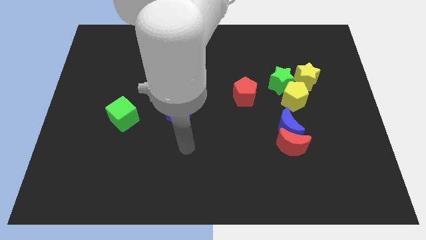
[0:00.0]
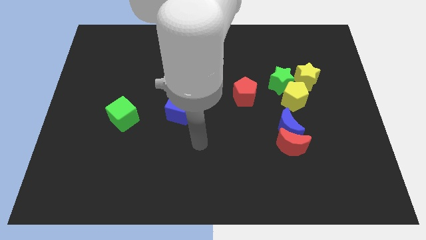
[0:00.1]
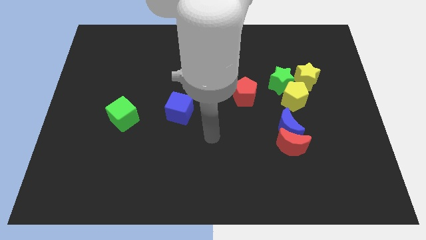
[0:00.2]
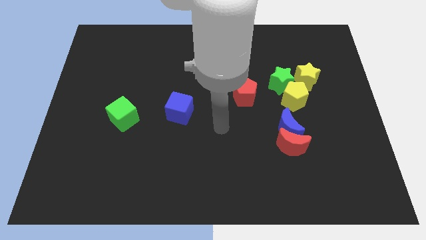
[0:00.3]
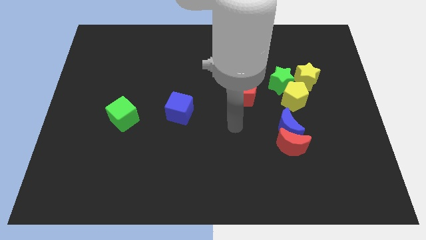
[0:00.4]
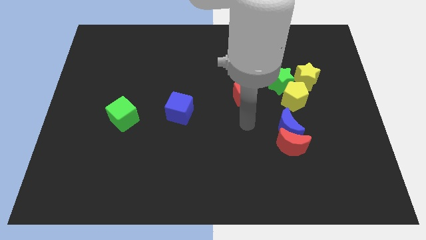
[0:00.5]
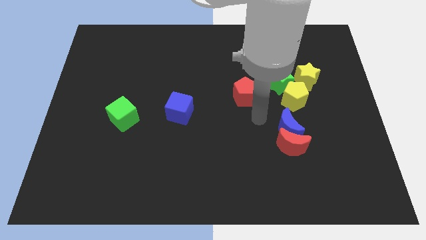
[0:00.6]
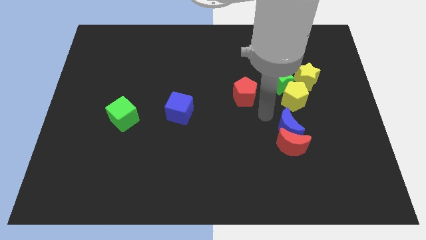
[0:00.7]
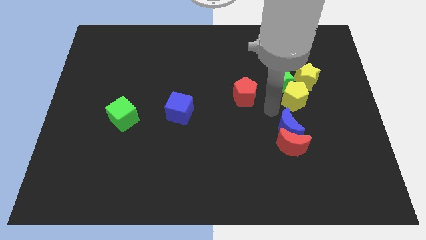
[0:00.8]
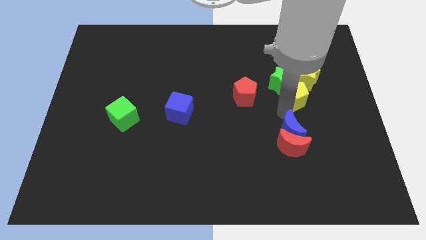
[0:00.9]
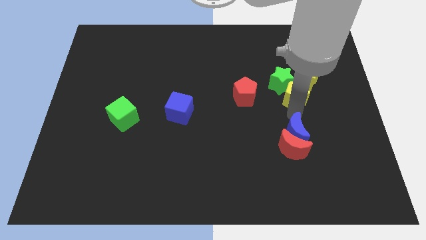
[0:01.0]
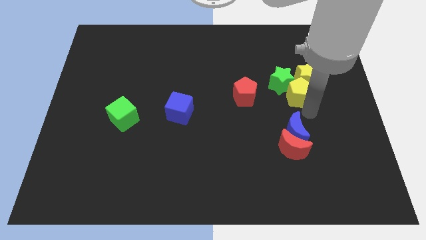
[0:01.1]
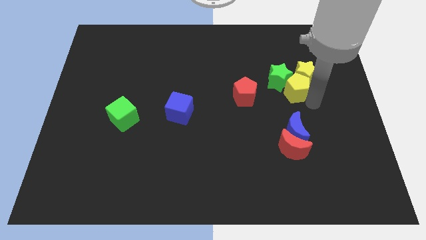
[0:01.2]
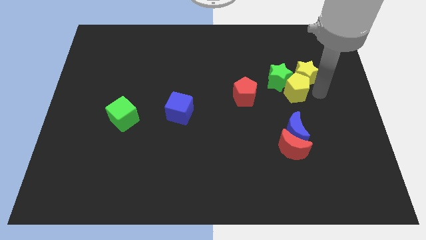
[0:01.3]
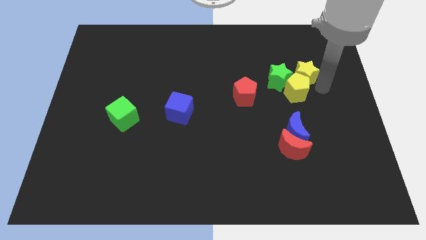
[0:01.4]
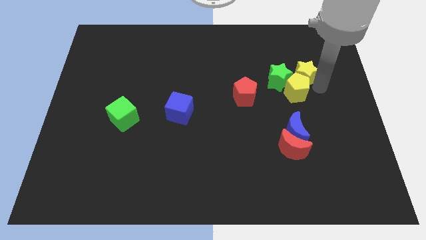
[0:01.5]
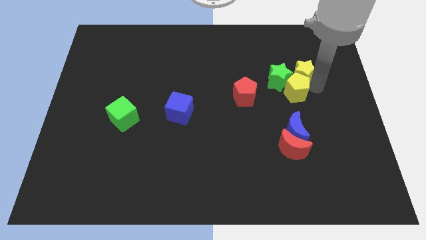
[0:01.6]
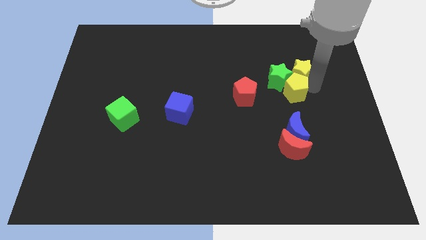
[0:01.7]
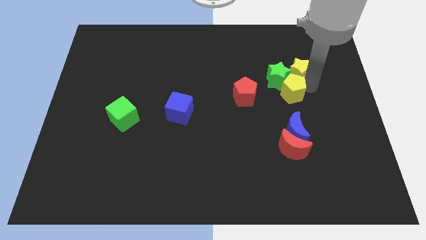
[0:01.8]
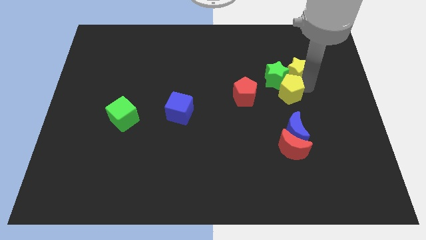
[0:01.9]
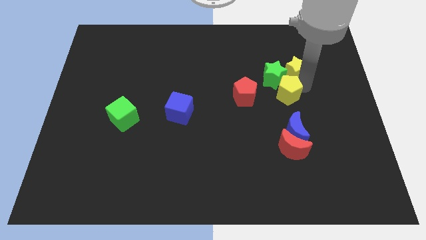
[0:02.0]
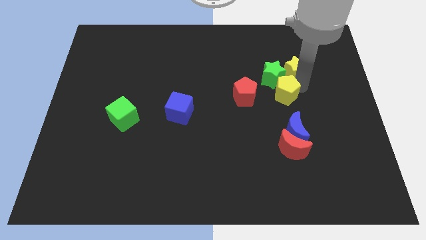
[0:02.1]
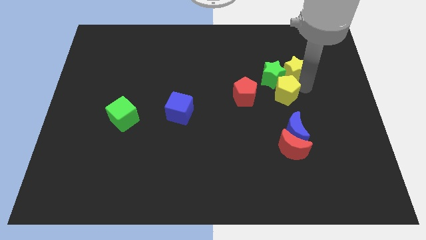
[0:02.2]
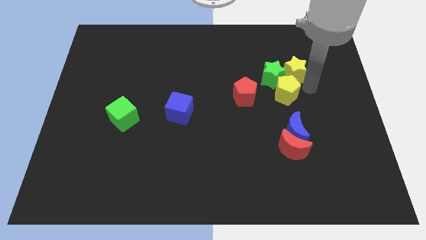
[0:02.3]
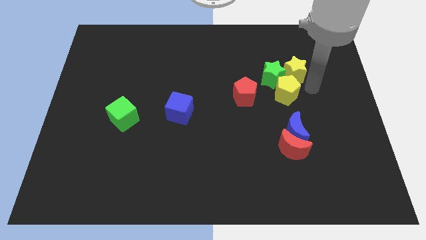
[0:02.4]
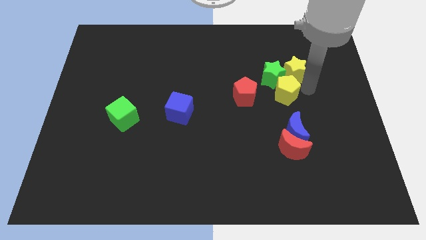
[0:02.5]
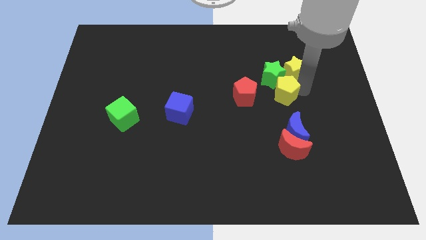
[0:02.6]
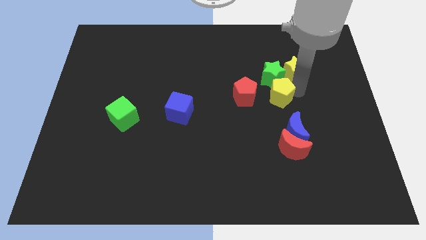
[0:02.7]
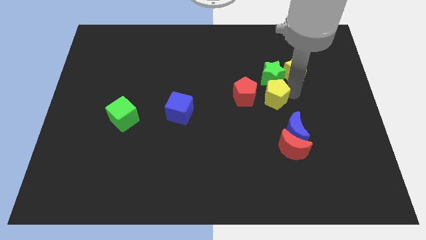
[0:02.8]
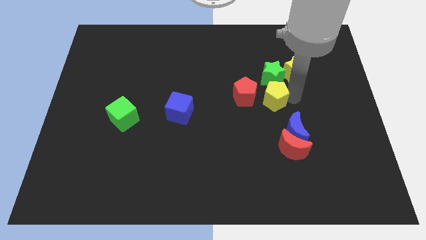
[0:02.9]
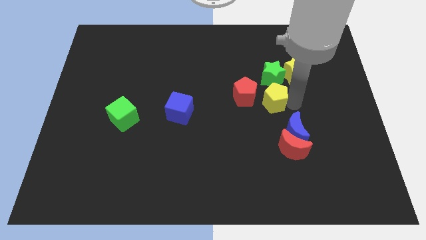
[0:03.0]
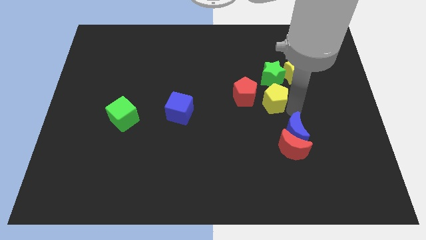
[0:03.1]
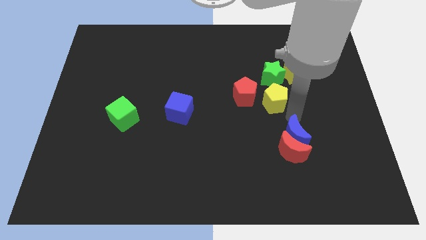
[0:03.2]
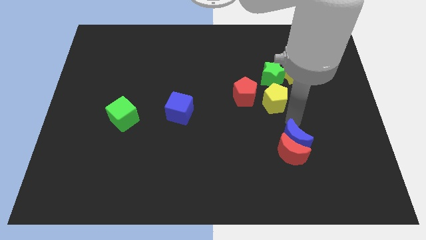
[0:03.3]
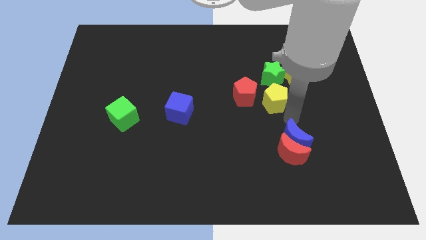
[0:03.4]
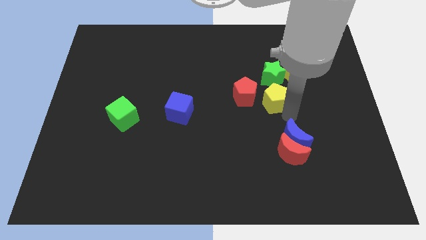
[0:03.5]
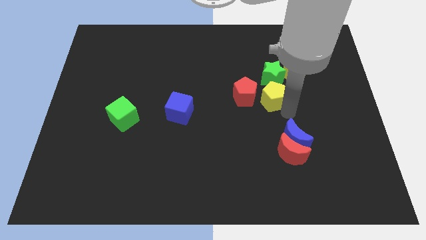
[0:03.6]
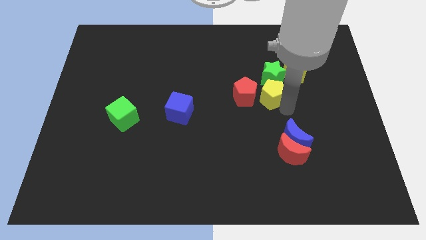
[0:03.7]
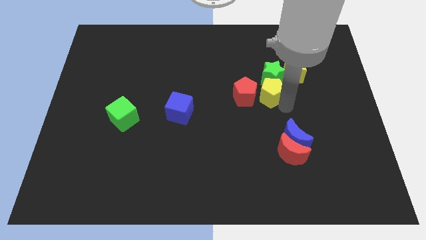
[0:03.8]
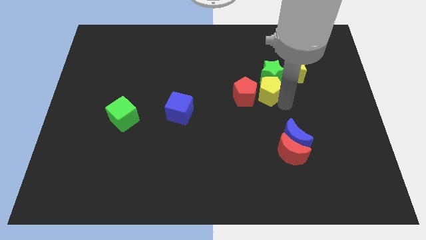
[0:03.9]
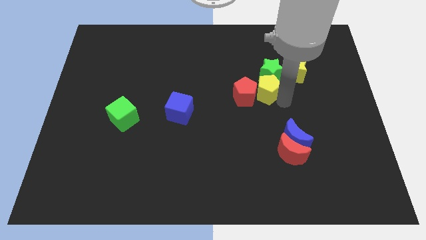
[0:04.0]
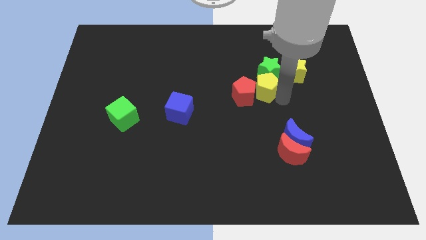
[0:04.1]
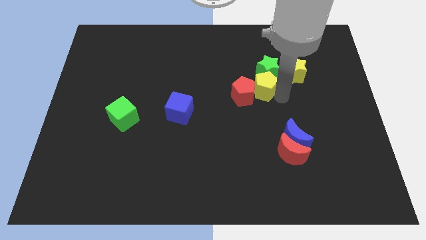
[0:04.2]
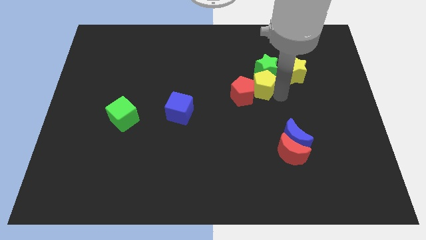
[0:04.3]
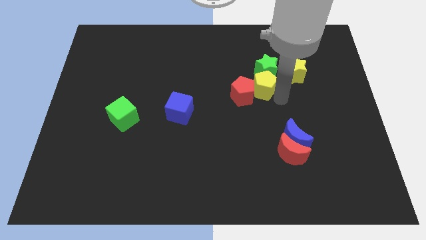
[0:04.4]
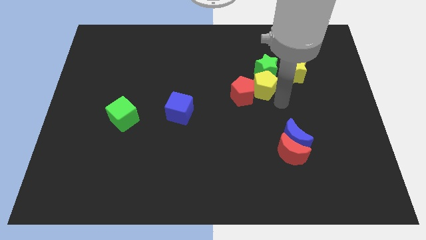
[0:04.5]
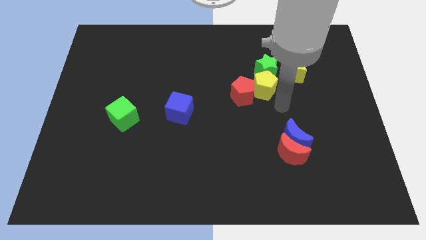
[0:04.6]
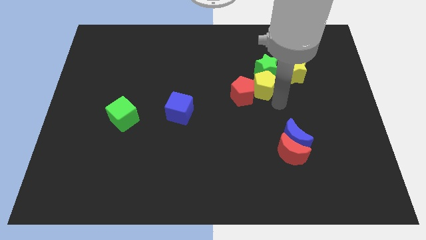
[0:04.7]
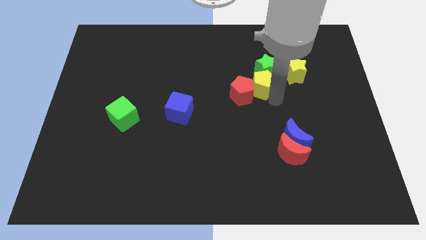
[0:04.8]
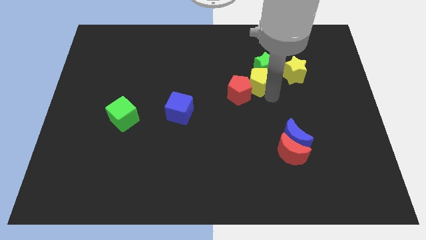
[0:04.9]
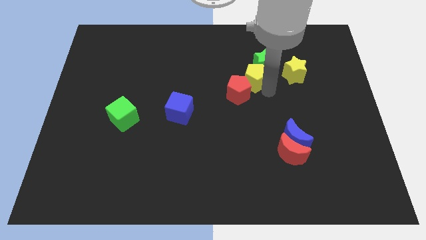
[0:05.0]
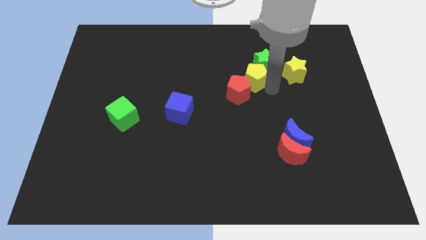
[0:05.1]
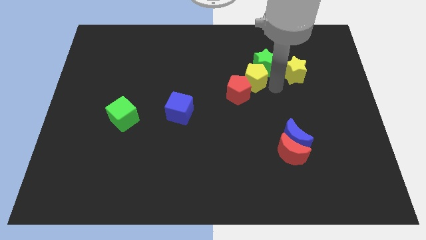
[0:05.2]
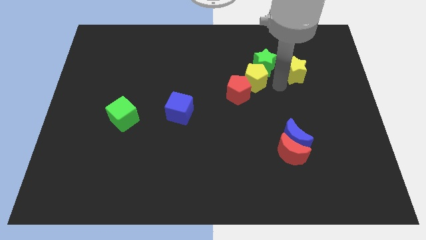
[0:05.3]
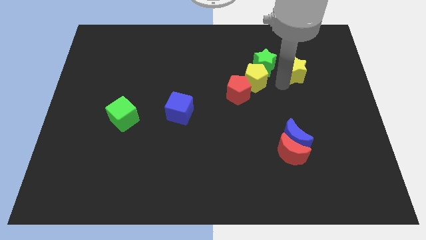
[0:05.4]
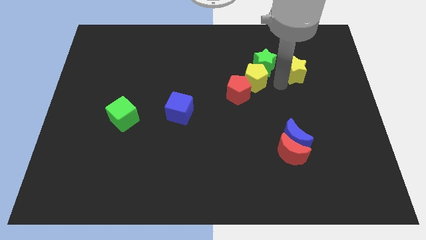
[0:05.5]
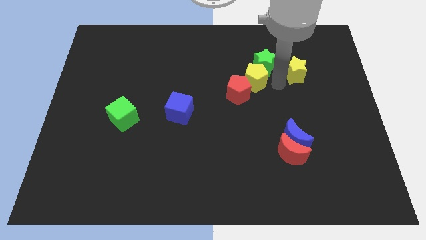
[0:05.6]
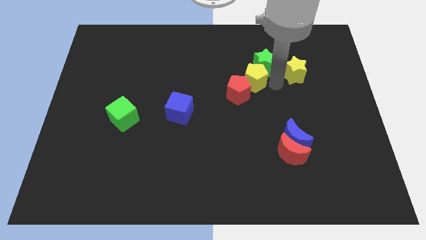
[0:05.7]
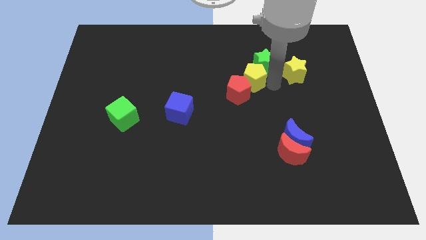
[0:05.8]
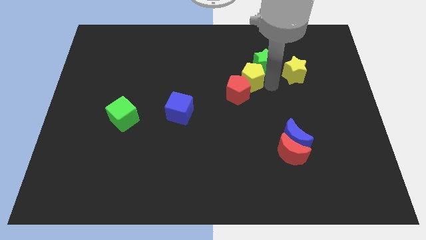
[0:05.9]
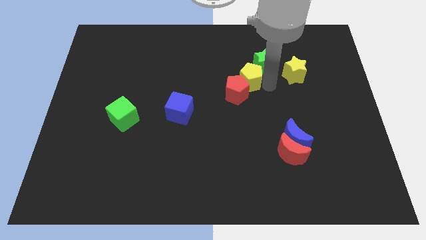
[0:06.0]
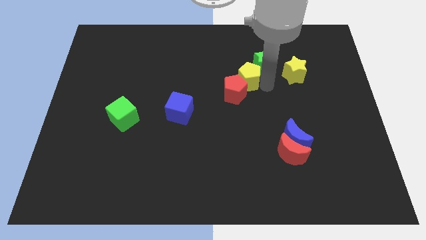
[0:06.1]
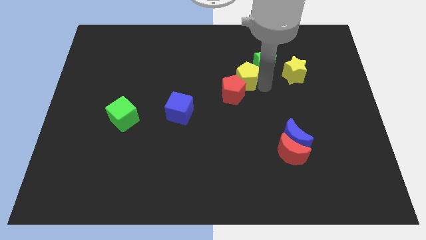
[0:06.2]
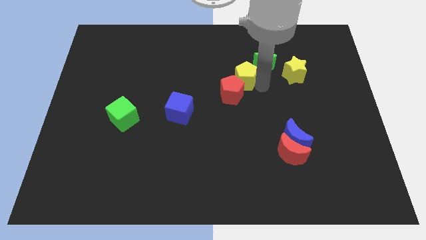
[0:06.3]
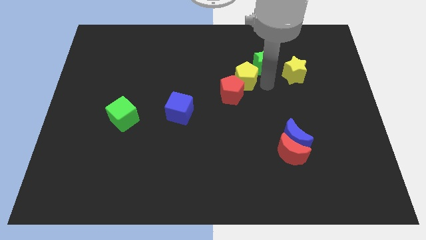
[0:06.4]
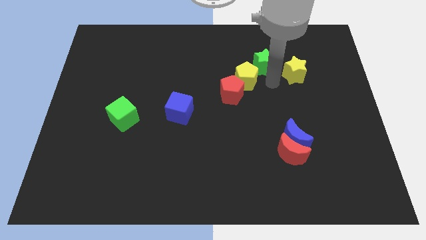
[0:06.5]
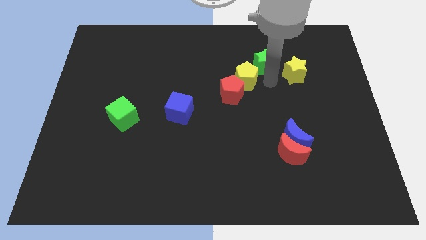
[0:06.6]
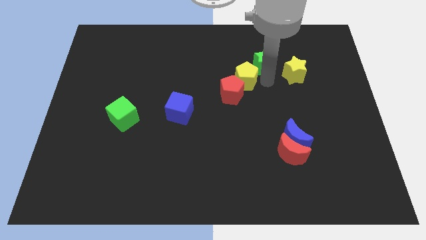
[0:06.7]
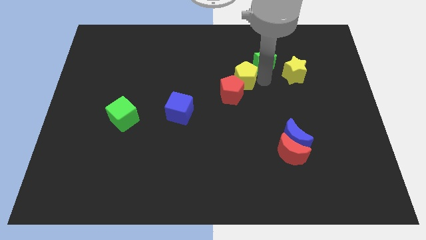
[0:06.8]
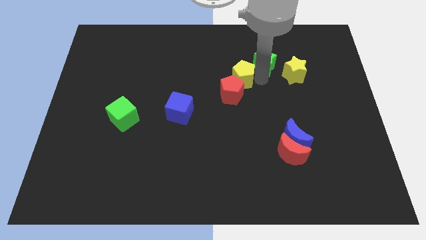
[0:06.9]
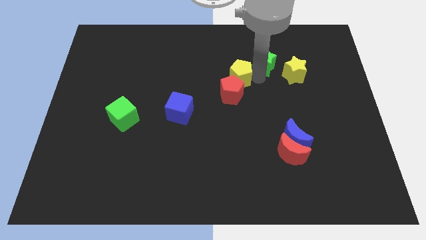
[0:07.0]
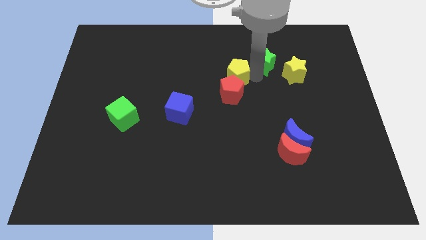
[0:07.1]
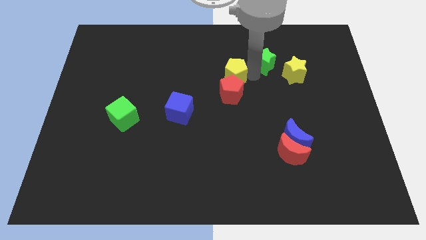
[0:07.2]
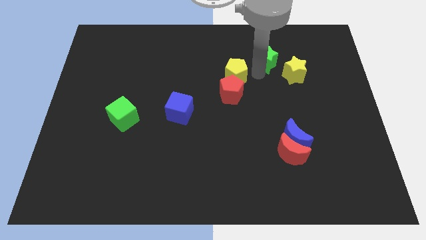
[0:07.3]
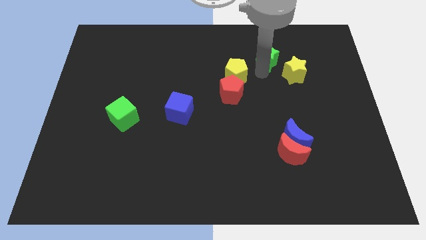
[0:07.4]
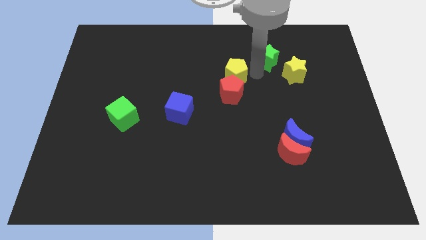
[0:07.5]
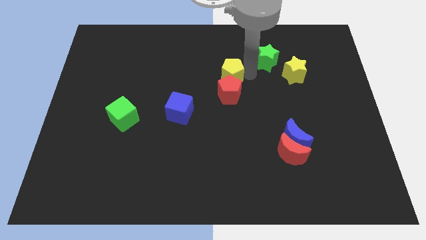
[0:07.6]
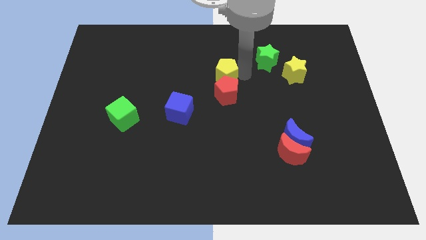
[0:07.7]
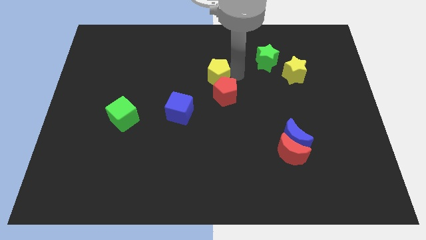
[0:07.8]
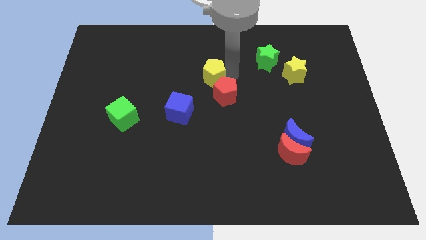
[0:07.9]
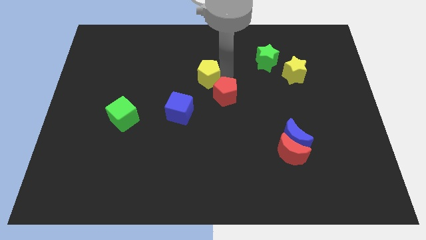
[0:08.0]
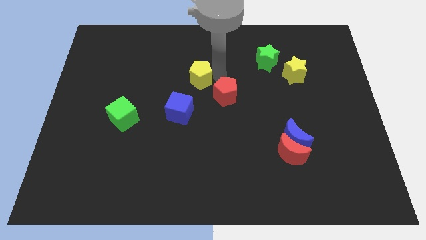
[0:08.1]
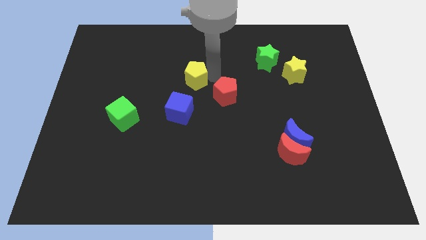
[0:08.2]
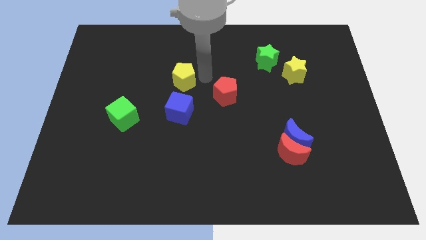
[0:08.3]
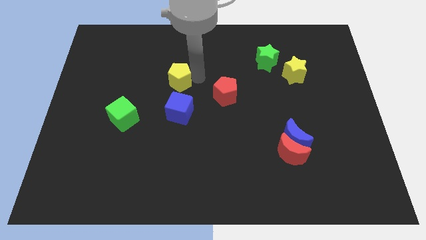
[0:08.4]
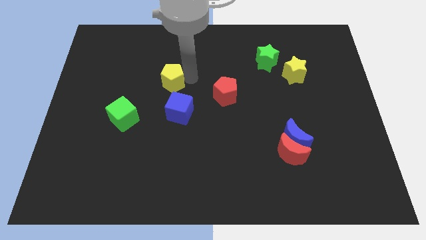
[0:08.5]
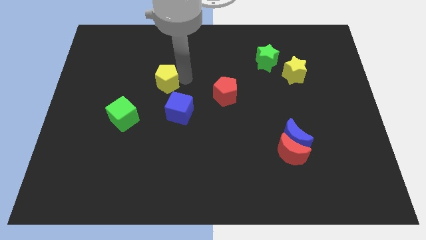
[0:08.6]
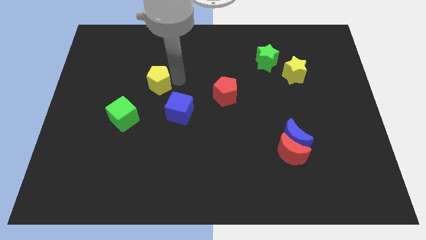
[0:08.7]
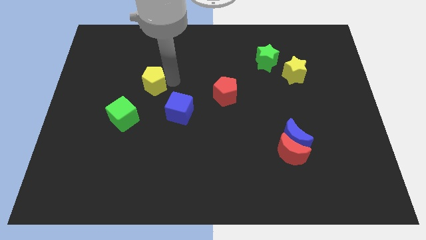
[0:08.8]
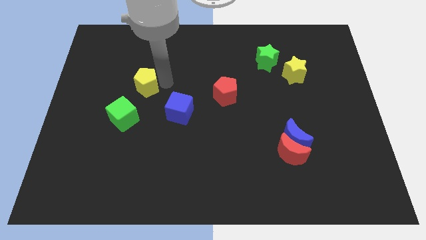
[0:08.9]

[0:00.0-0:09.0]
put the yellow pentagon to the top of the green cube
